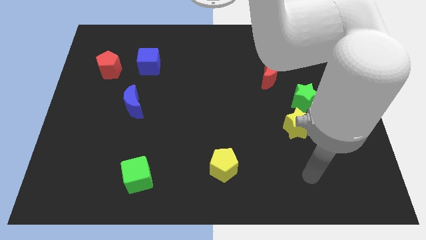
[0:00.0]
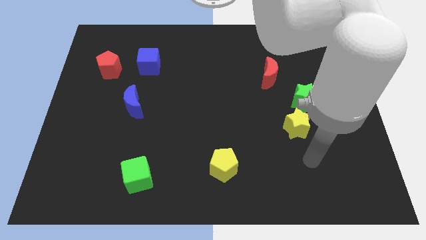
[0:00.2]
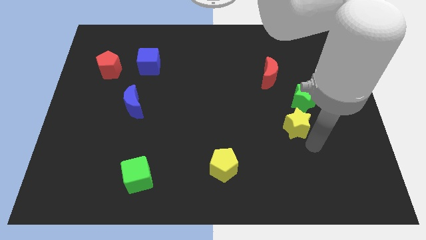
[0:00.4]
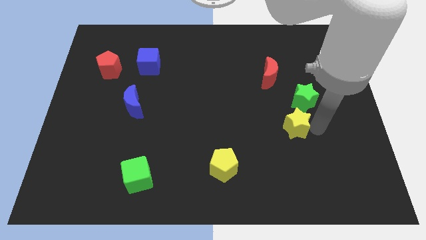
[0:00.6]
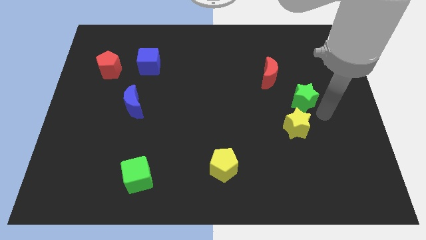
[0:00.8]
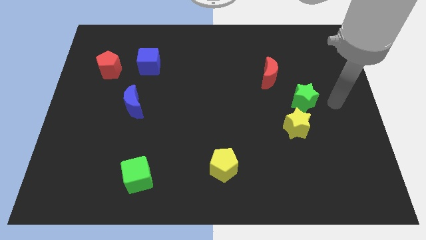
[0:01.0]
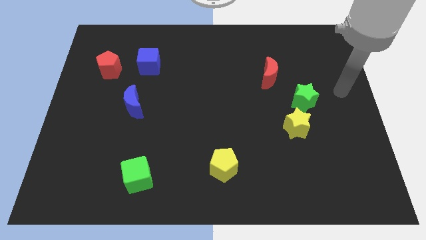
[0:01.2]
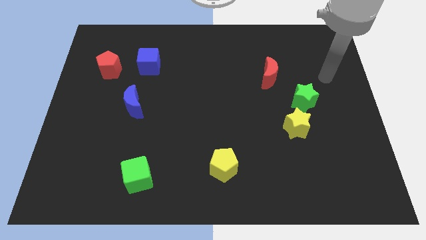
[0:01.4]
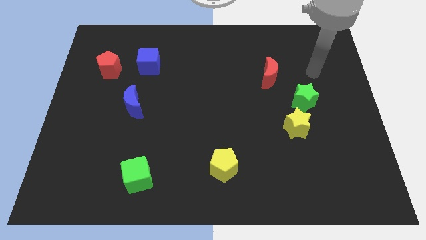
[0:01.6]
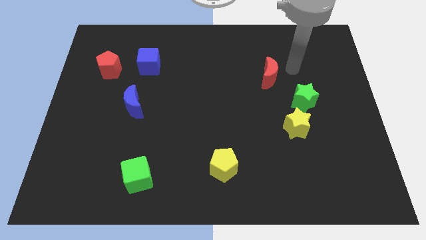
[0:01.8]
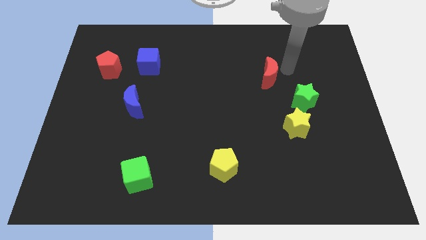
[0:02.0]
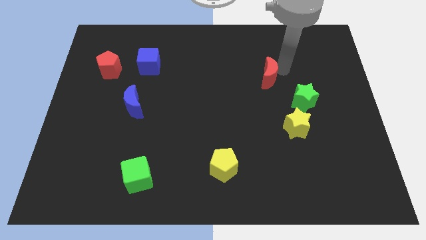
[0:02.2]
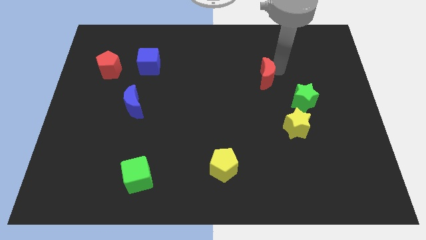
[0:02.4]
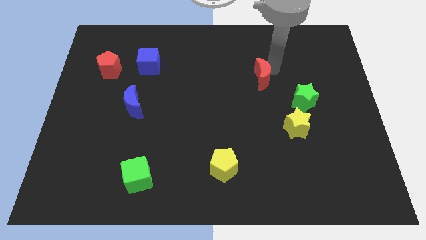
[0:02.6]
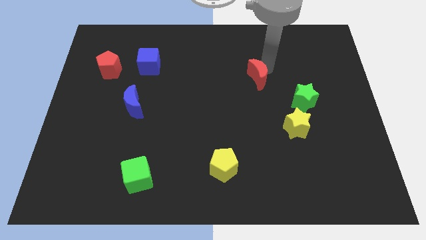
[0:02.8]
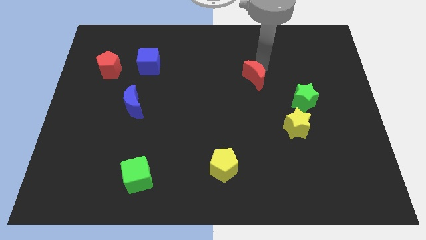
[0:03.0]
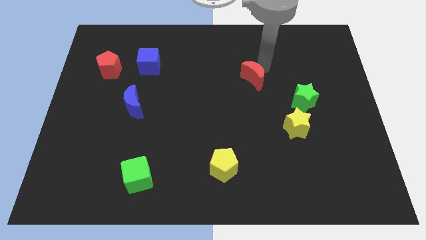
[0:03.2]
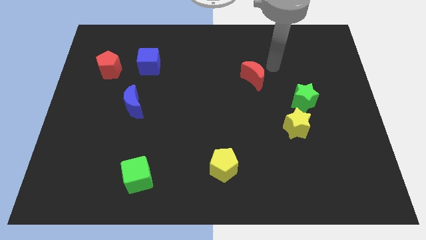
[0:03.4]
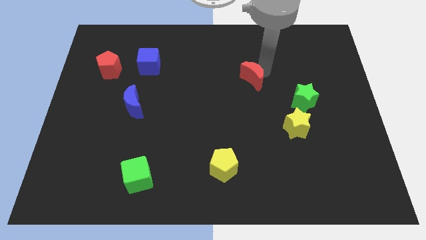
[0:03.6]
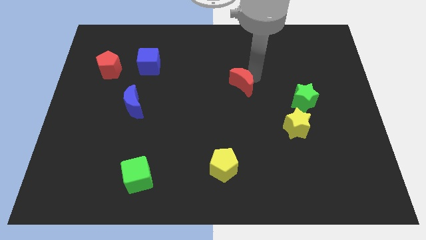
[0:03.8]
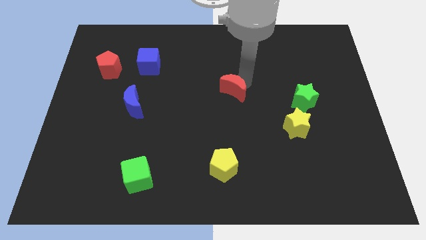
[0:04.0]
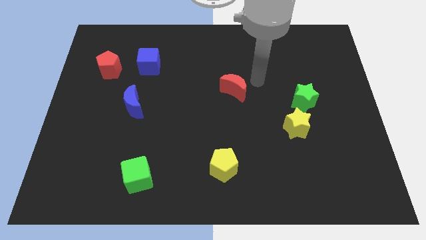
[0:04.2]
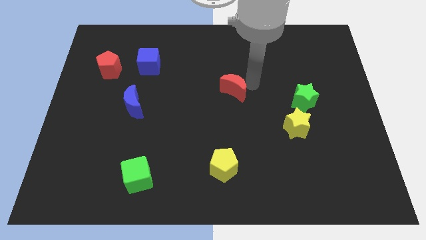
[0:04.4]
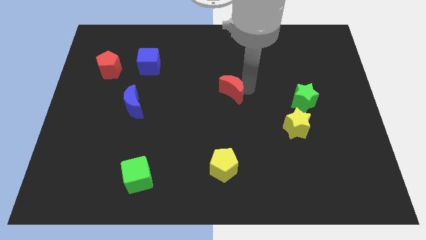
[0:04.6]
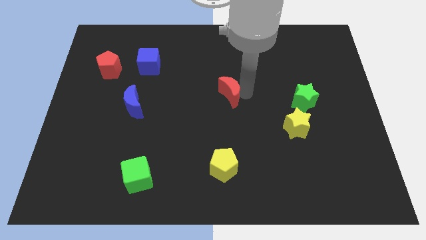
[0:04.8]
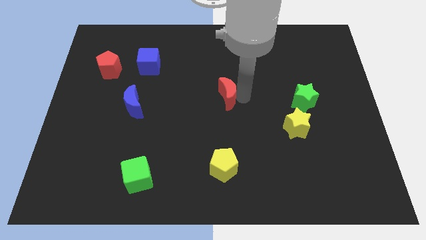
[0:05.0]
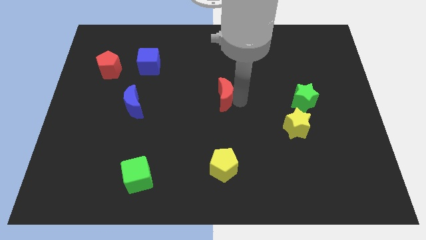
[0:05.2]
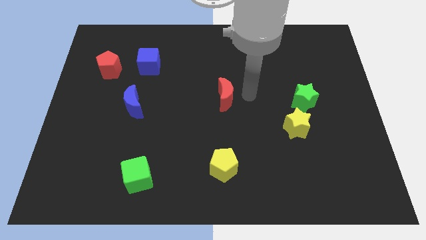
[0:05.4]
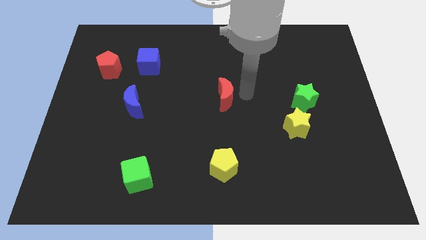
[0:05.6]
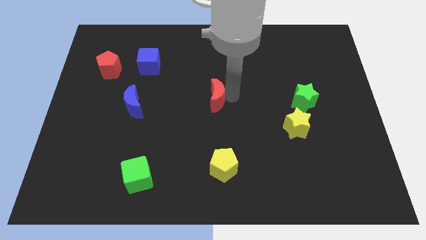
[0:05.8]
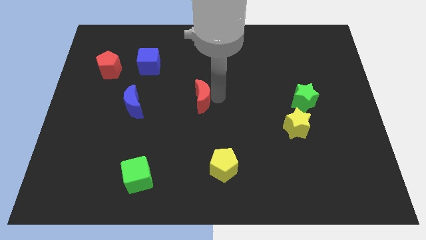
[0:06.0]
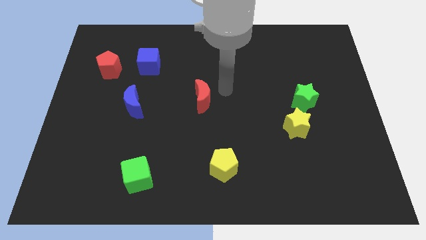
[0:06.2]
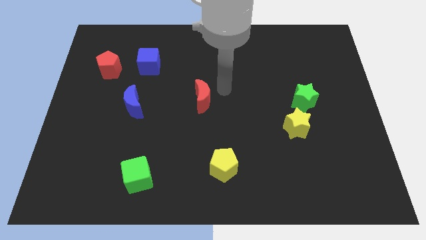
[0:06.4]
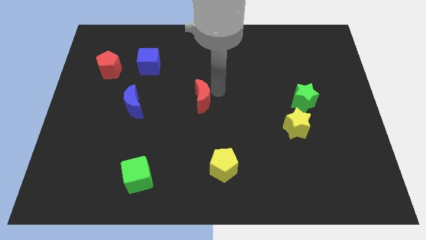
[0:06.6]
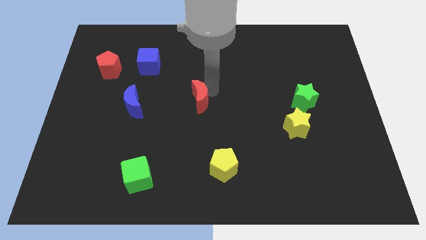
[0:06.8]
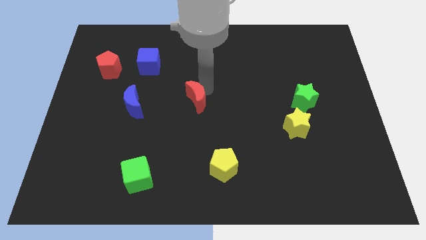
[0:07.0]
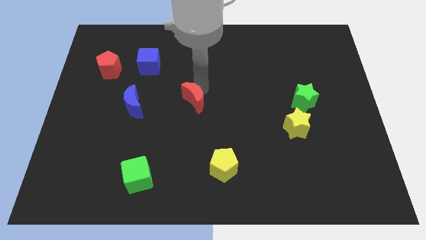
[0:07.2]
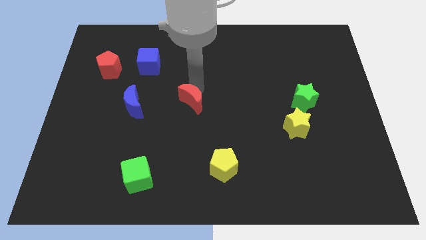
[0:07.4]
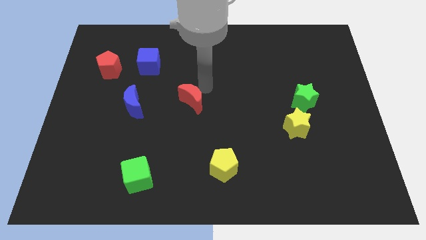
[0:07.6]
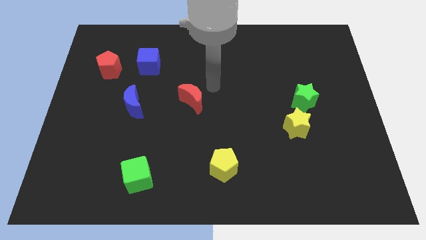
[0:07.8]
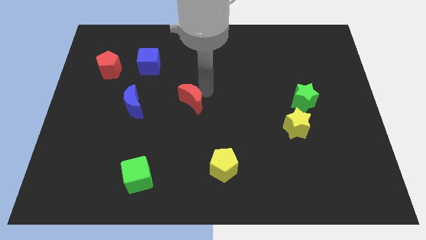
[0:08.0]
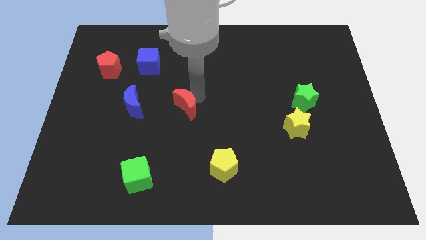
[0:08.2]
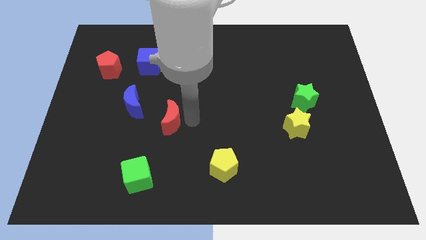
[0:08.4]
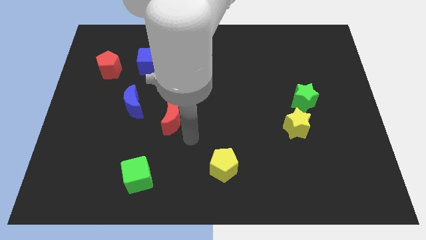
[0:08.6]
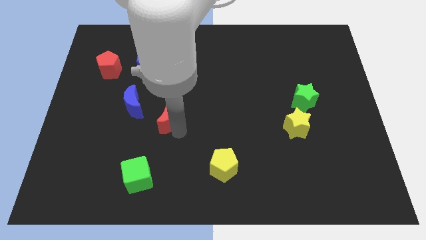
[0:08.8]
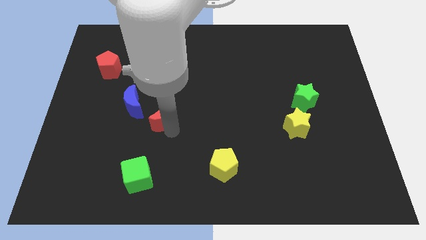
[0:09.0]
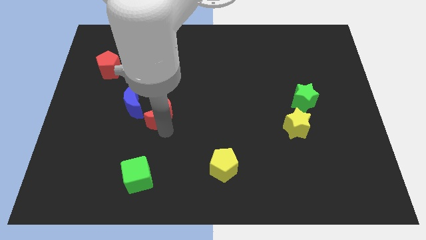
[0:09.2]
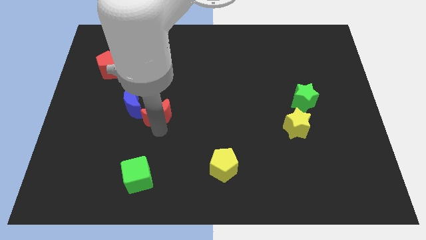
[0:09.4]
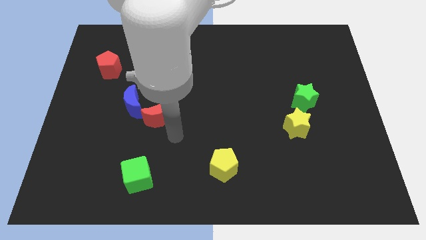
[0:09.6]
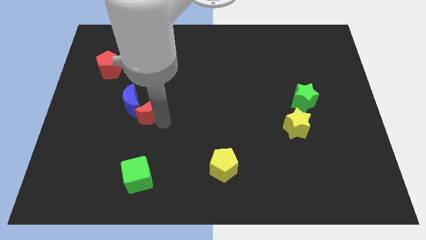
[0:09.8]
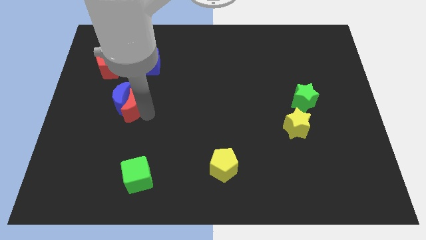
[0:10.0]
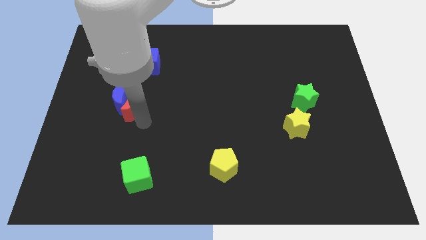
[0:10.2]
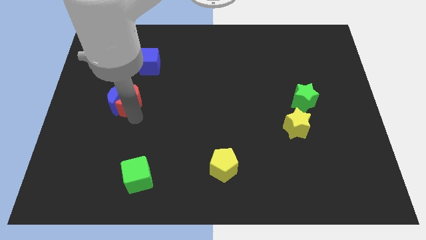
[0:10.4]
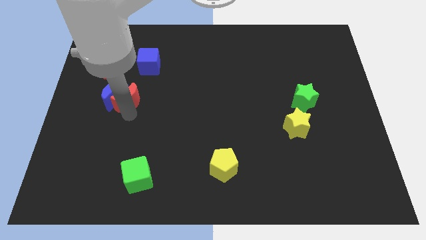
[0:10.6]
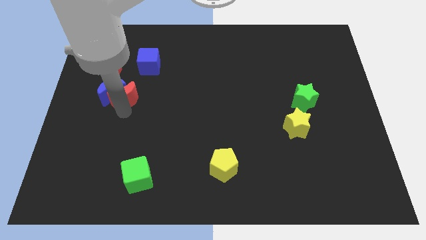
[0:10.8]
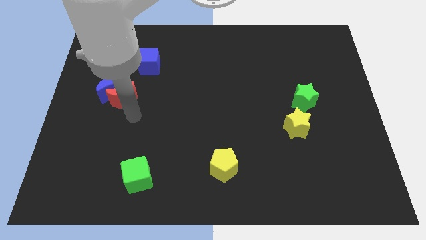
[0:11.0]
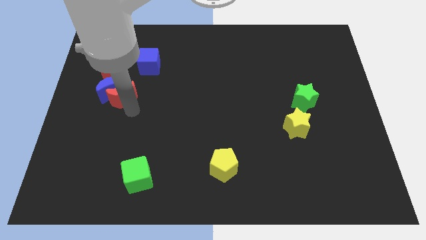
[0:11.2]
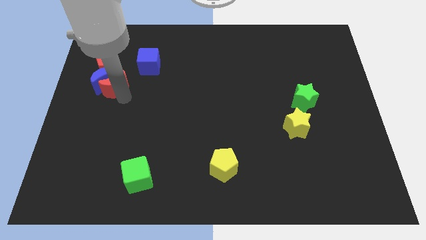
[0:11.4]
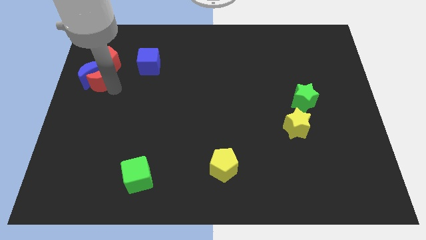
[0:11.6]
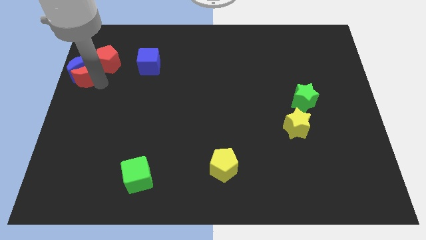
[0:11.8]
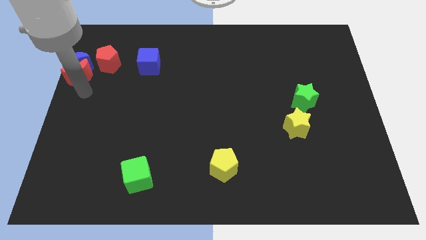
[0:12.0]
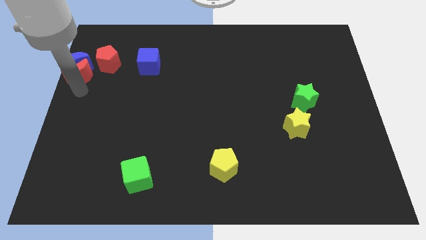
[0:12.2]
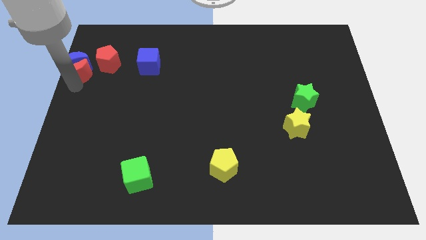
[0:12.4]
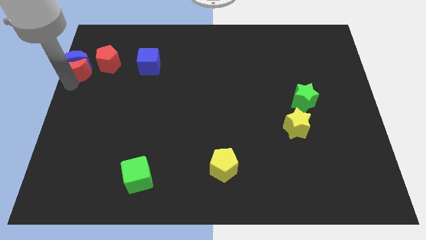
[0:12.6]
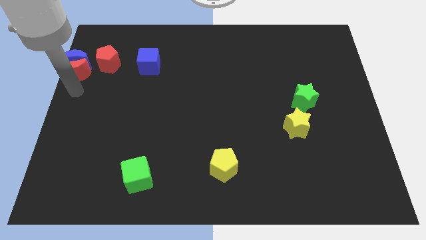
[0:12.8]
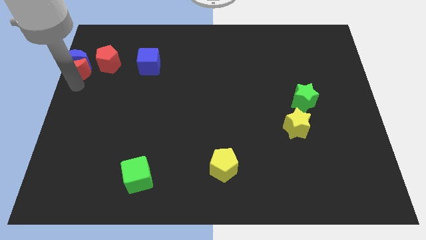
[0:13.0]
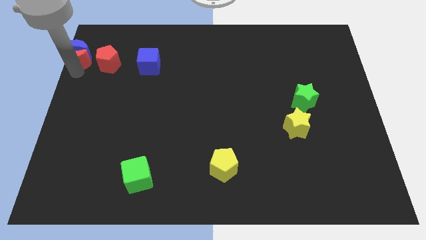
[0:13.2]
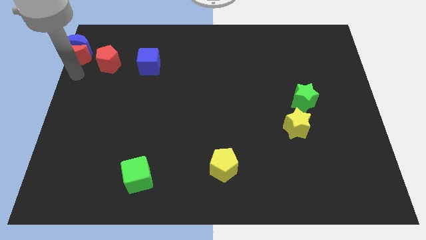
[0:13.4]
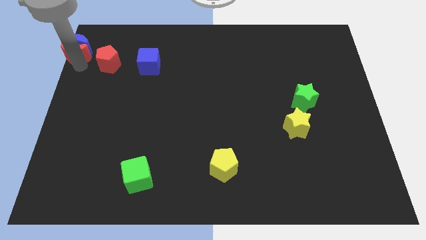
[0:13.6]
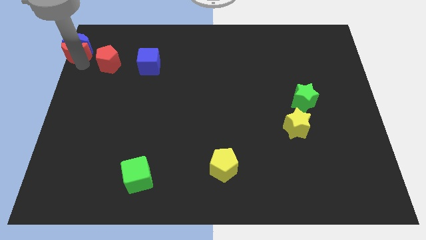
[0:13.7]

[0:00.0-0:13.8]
slide the red moon to the top left of the board

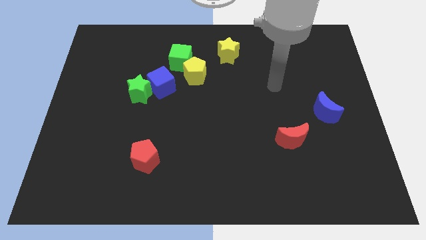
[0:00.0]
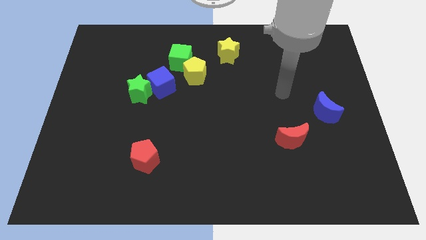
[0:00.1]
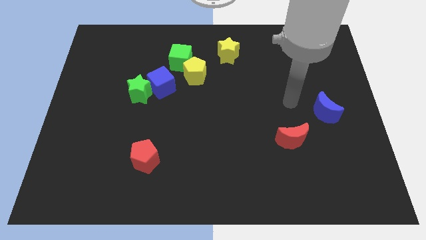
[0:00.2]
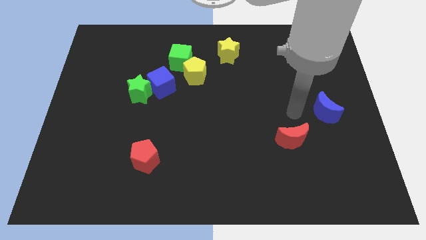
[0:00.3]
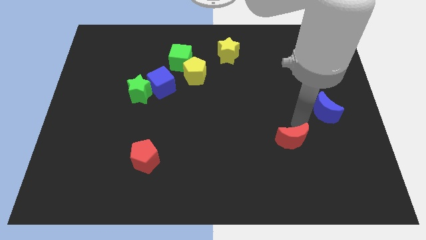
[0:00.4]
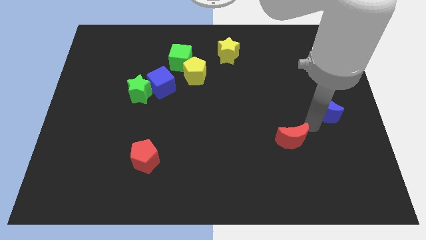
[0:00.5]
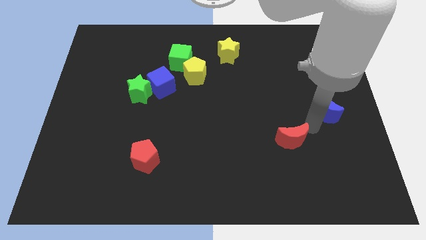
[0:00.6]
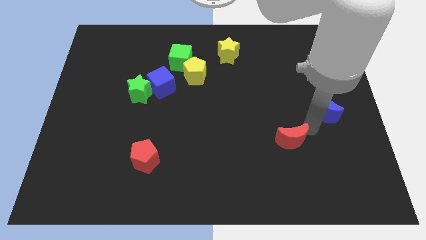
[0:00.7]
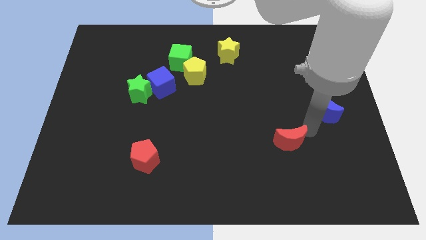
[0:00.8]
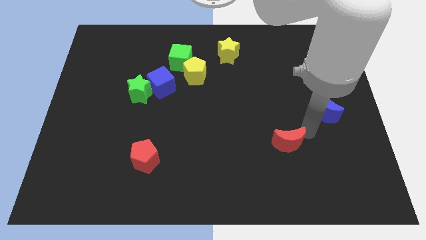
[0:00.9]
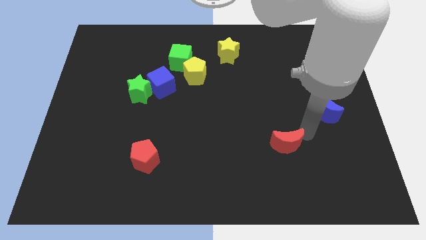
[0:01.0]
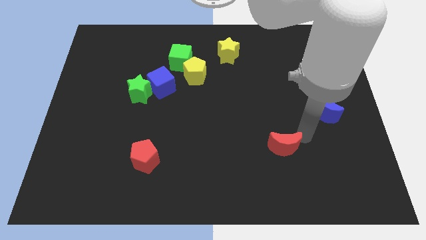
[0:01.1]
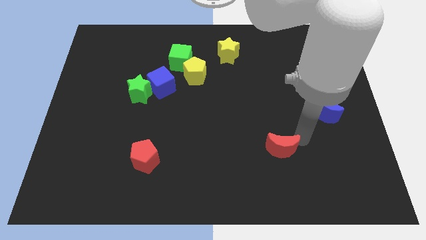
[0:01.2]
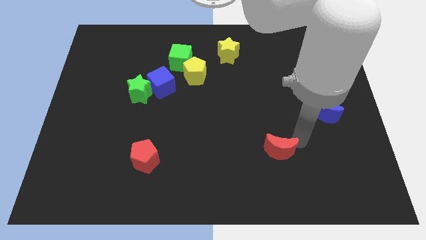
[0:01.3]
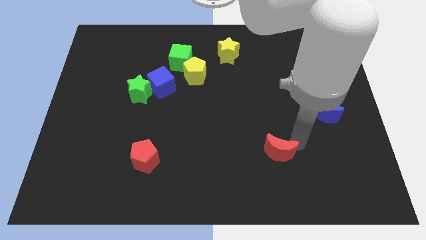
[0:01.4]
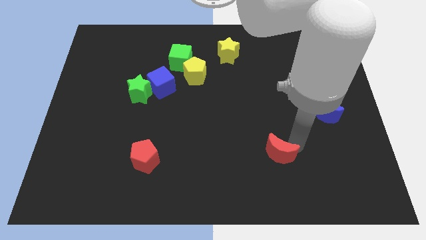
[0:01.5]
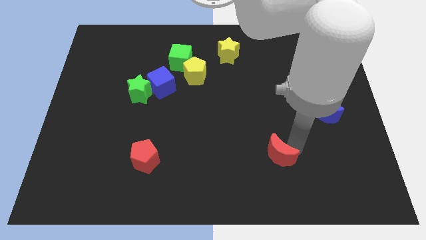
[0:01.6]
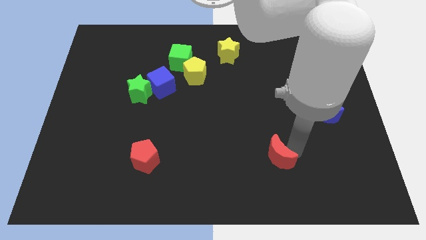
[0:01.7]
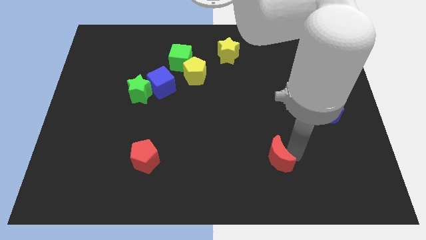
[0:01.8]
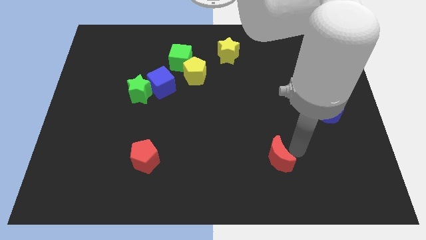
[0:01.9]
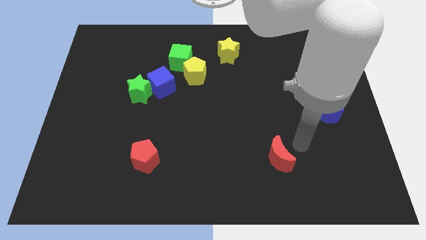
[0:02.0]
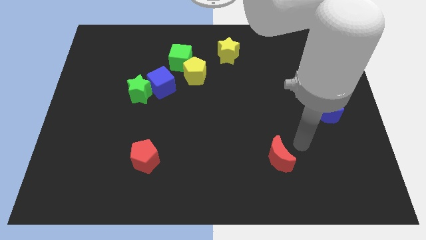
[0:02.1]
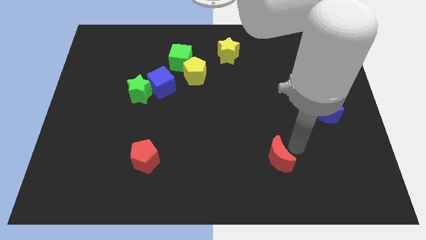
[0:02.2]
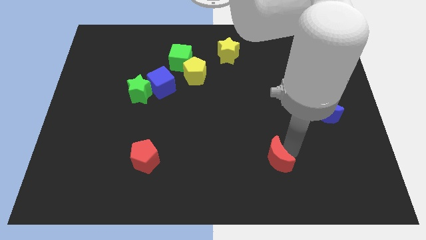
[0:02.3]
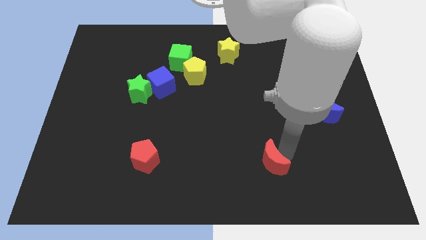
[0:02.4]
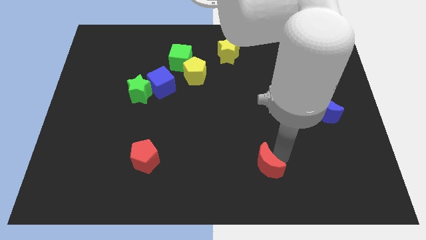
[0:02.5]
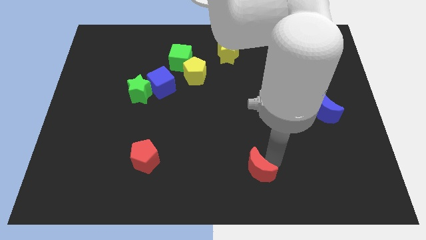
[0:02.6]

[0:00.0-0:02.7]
move the red moon to the bottom
